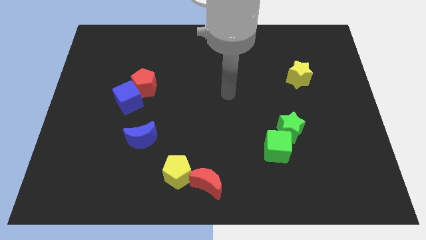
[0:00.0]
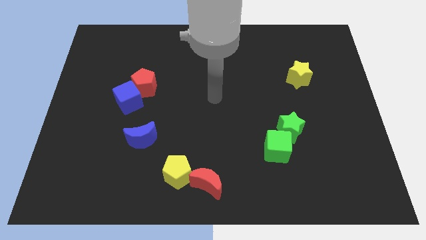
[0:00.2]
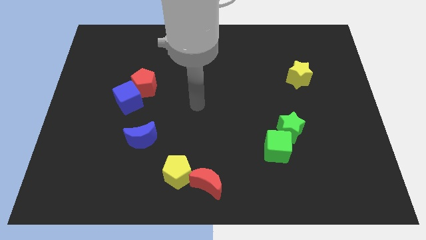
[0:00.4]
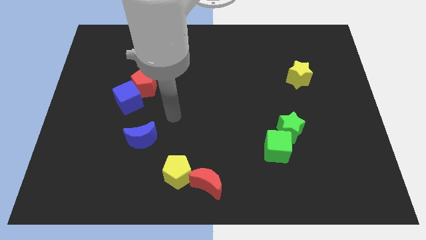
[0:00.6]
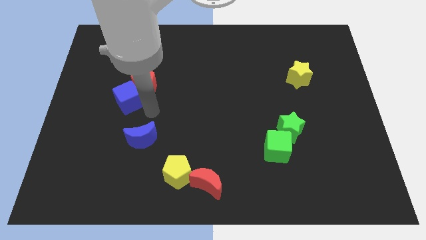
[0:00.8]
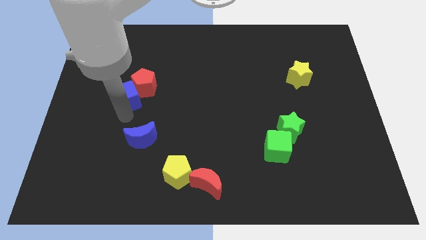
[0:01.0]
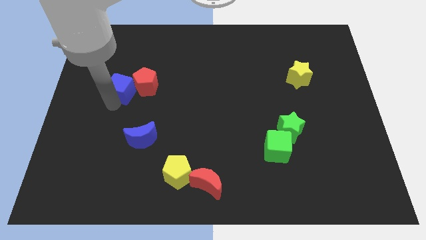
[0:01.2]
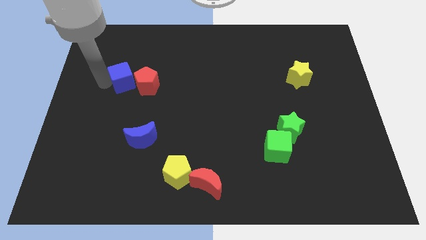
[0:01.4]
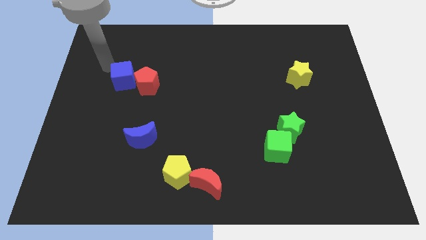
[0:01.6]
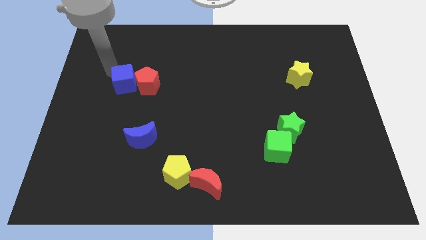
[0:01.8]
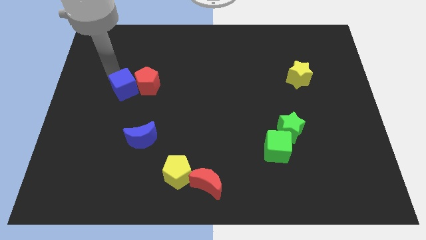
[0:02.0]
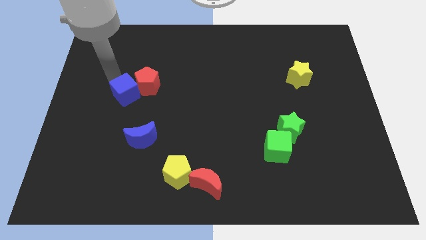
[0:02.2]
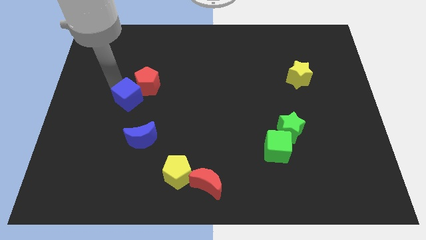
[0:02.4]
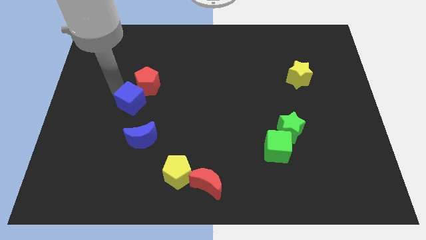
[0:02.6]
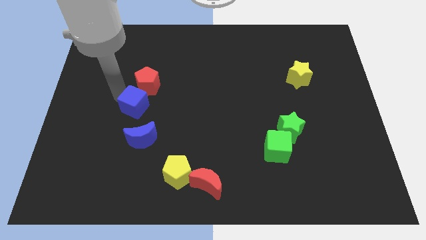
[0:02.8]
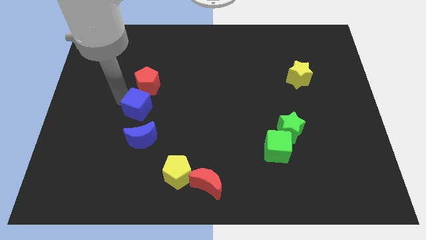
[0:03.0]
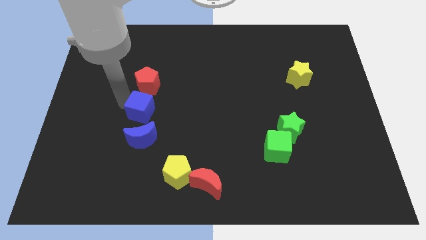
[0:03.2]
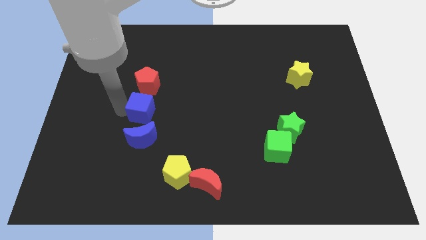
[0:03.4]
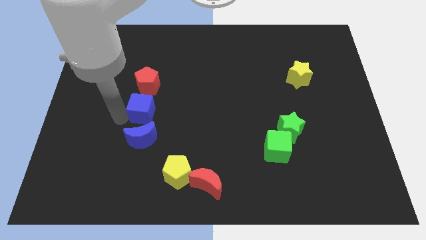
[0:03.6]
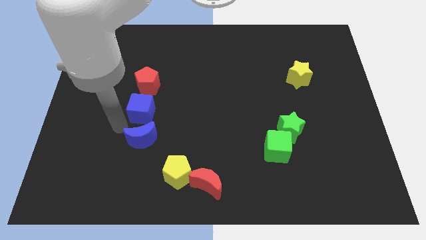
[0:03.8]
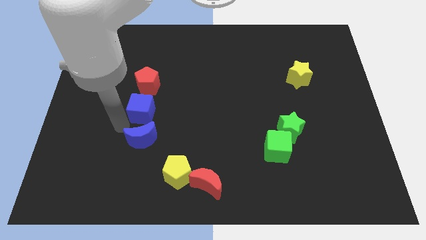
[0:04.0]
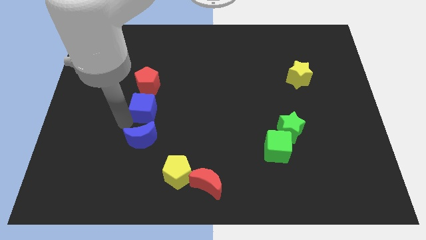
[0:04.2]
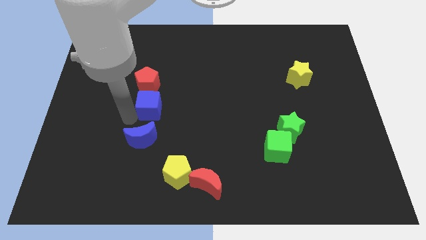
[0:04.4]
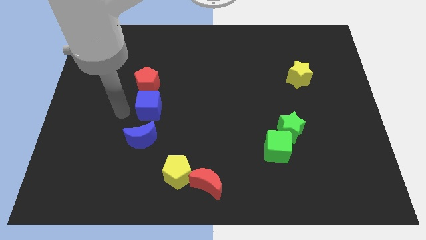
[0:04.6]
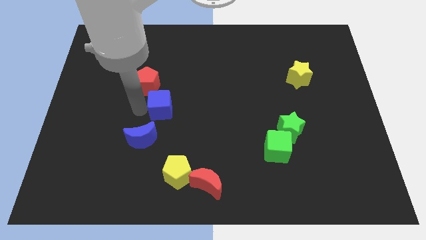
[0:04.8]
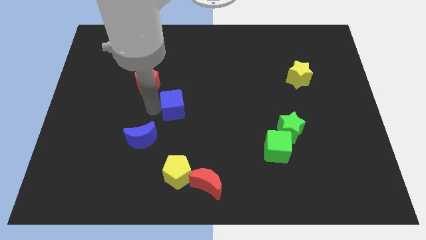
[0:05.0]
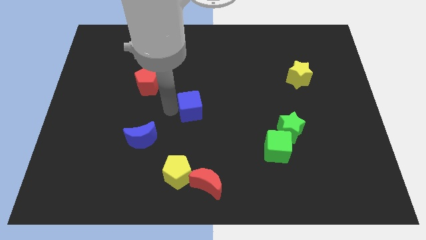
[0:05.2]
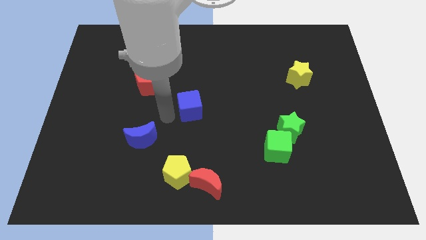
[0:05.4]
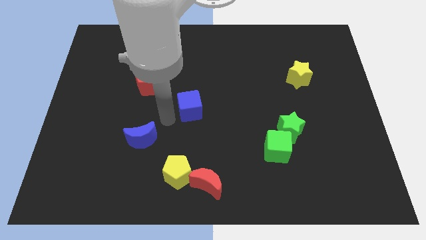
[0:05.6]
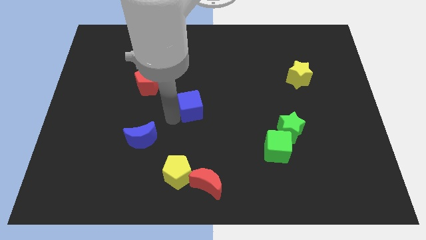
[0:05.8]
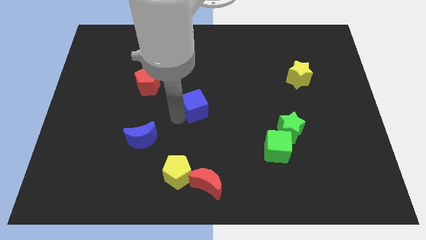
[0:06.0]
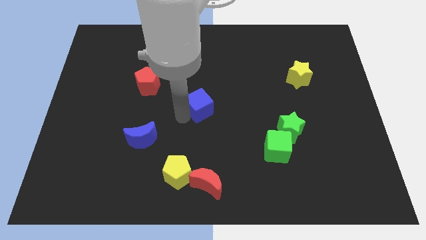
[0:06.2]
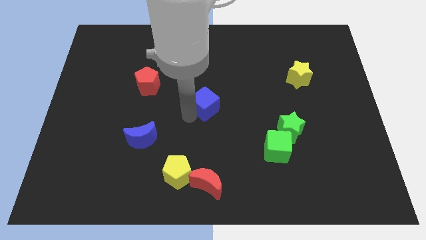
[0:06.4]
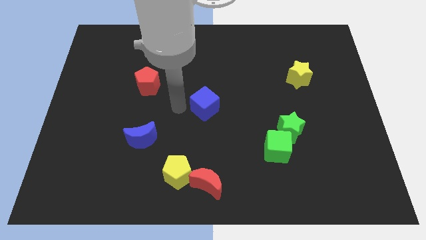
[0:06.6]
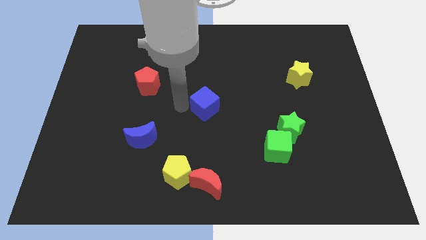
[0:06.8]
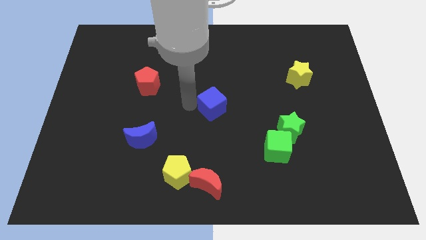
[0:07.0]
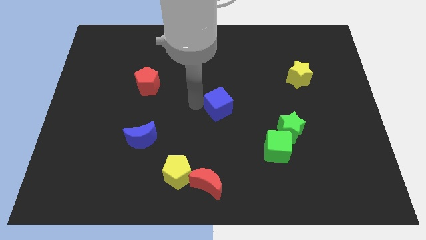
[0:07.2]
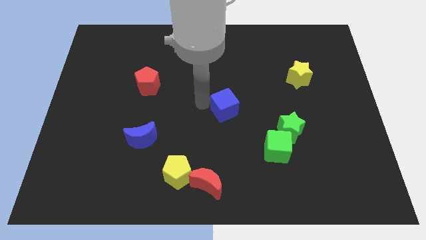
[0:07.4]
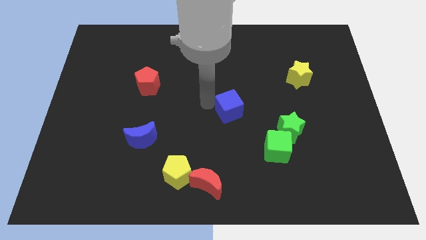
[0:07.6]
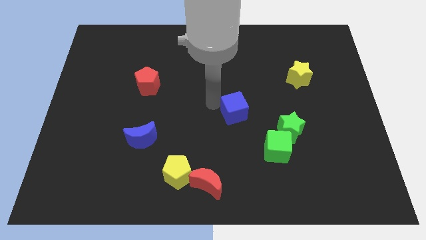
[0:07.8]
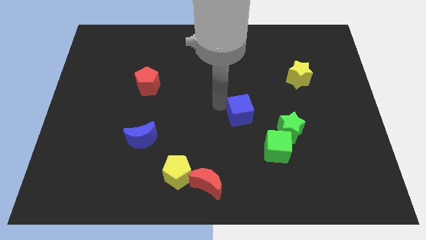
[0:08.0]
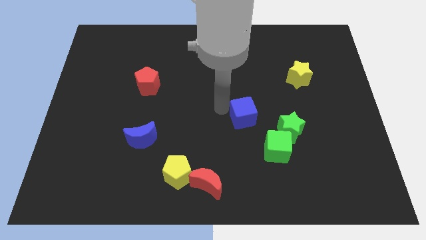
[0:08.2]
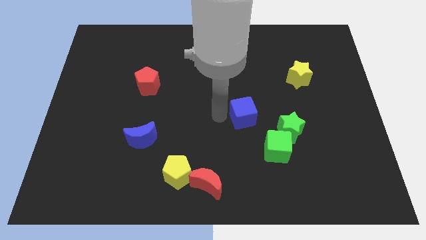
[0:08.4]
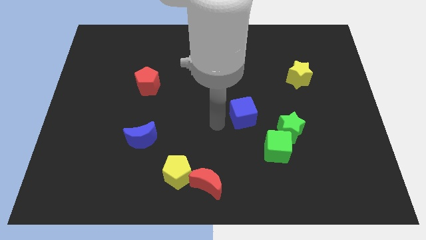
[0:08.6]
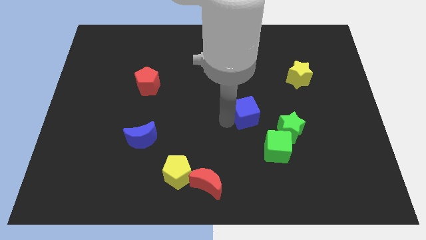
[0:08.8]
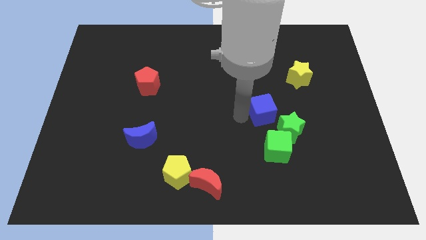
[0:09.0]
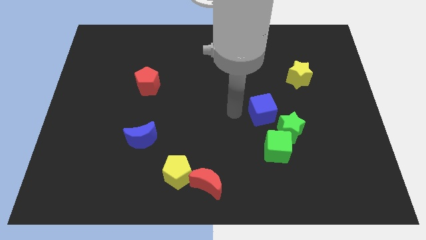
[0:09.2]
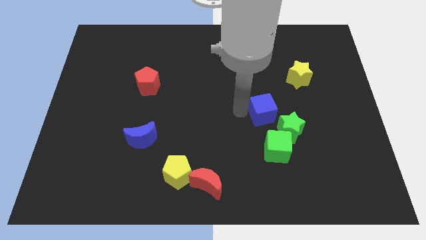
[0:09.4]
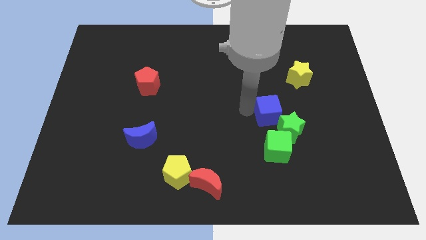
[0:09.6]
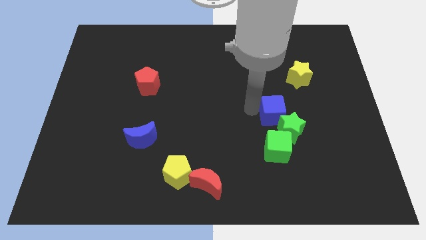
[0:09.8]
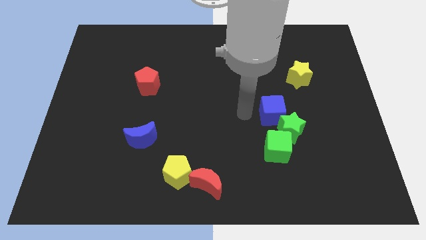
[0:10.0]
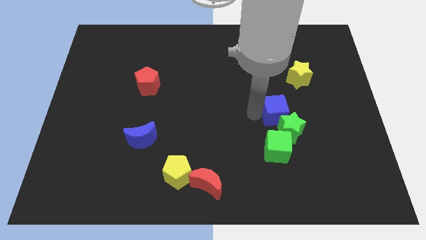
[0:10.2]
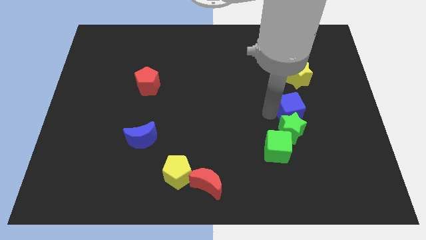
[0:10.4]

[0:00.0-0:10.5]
put the blue cube to the bottom of the yellow star

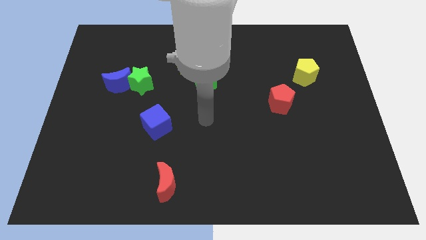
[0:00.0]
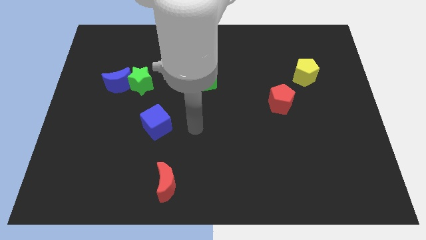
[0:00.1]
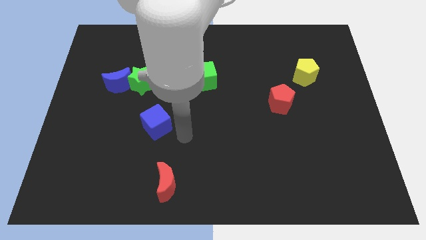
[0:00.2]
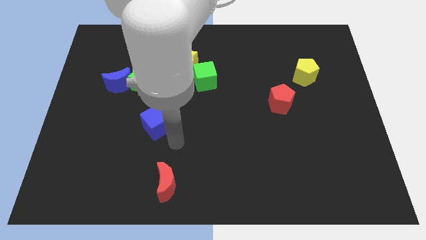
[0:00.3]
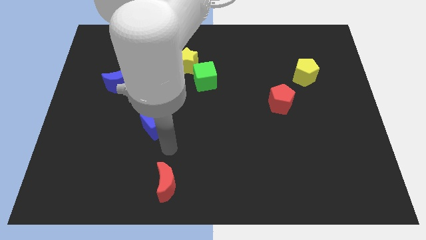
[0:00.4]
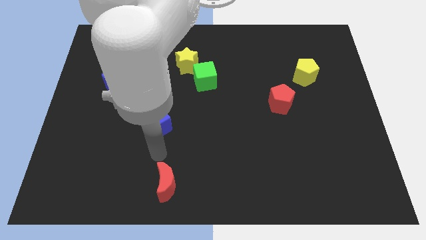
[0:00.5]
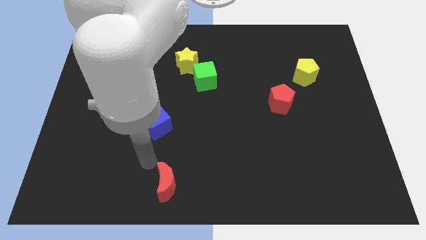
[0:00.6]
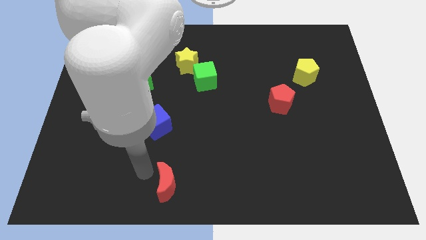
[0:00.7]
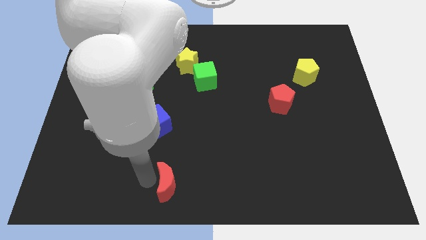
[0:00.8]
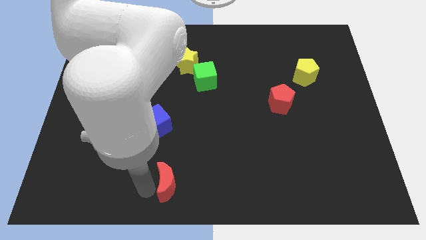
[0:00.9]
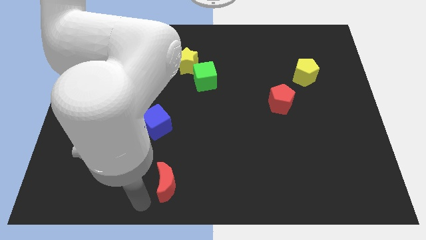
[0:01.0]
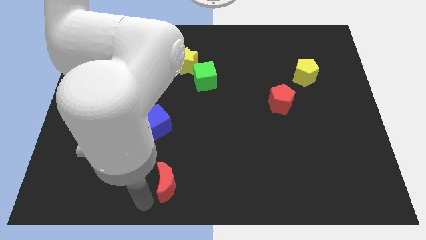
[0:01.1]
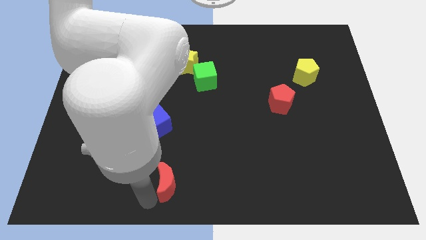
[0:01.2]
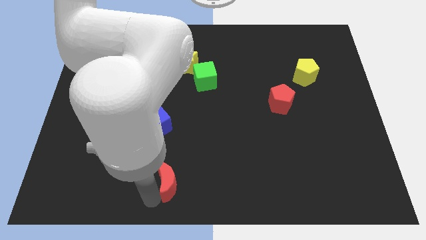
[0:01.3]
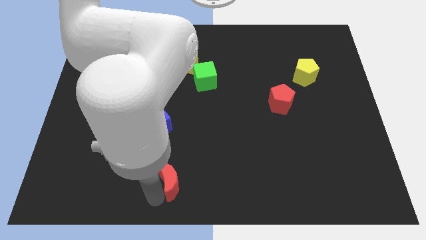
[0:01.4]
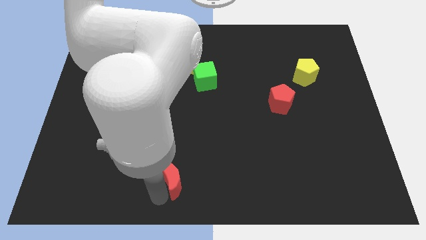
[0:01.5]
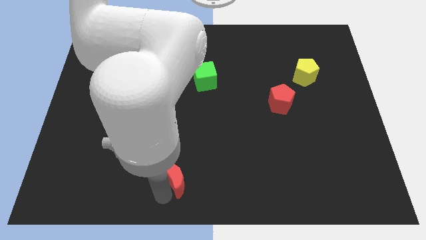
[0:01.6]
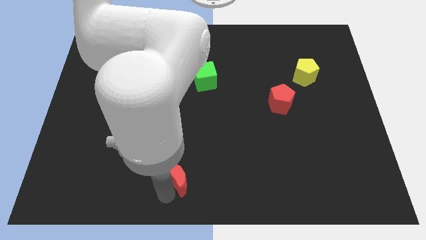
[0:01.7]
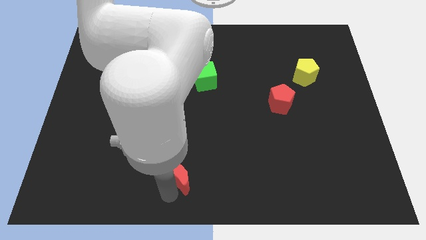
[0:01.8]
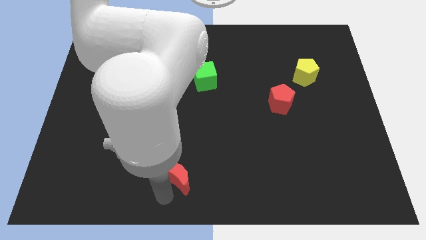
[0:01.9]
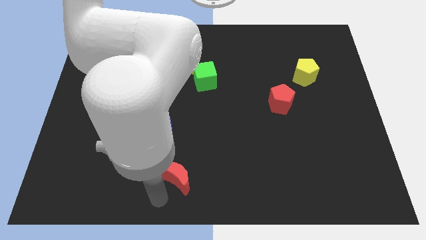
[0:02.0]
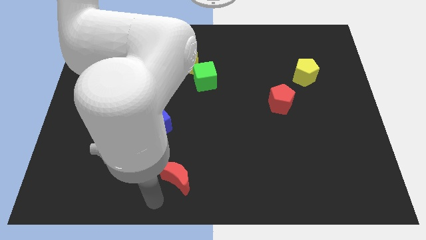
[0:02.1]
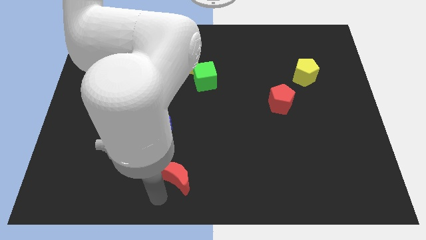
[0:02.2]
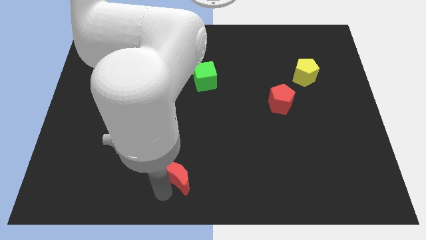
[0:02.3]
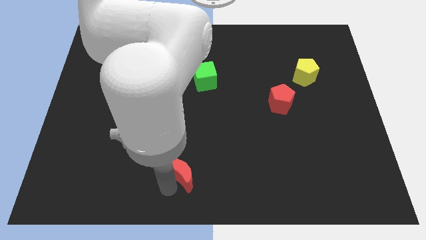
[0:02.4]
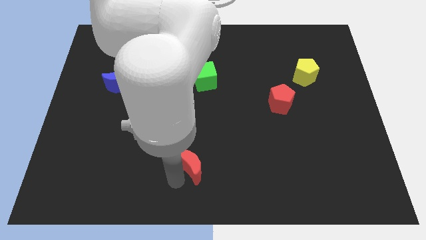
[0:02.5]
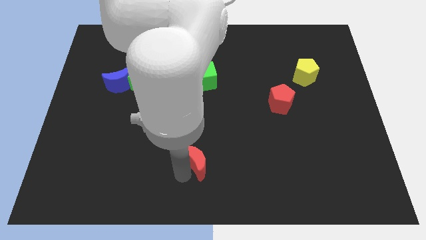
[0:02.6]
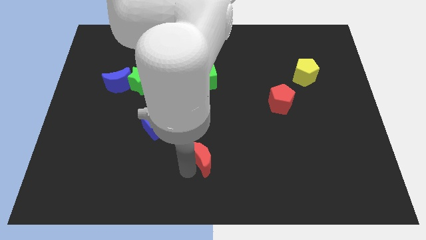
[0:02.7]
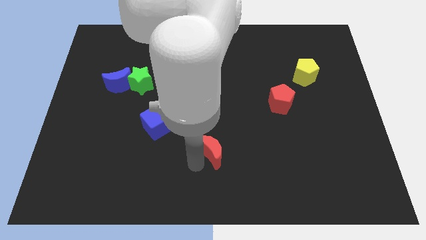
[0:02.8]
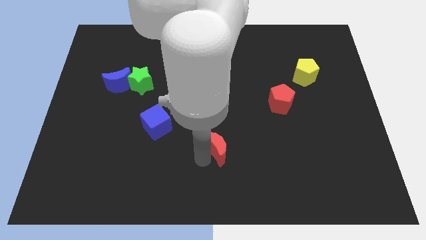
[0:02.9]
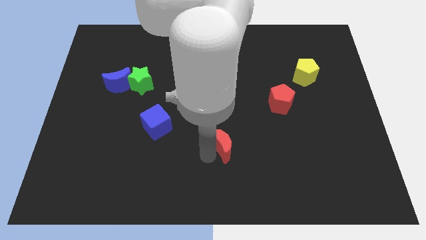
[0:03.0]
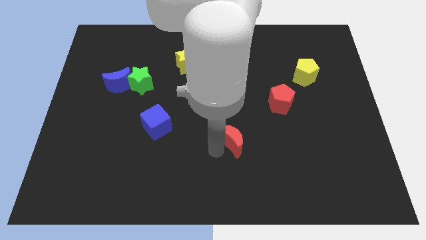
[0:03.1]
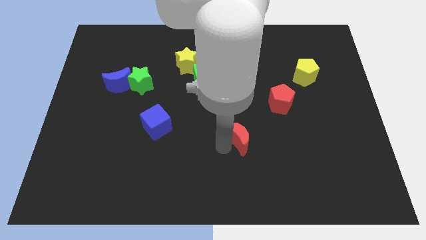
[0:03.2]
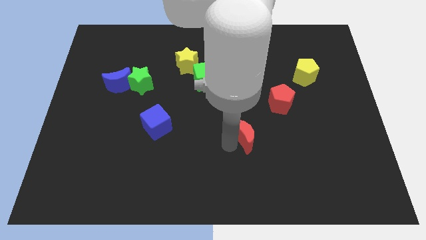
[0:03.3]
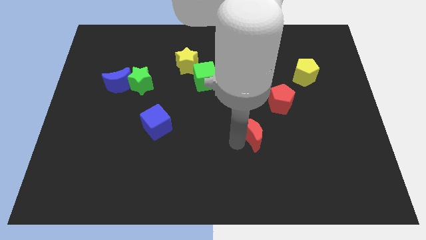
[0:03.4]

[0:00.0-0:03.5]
slide the red moon to the bottom left of the red pentagon
